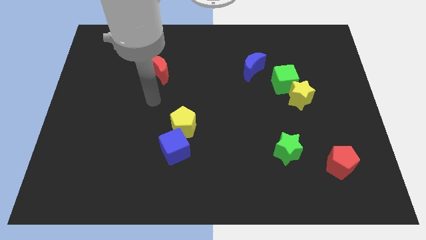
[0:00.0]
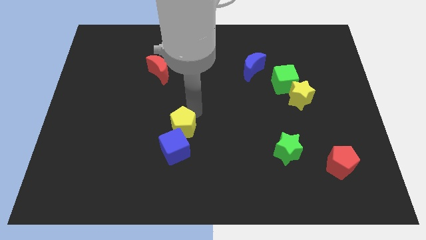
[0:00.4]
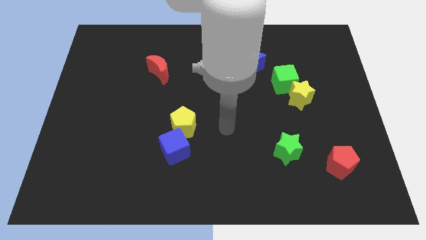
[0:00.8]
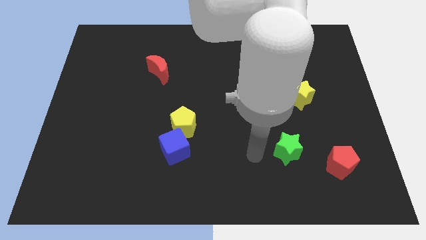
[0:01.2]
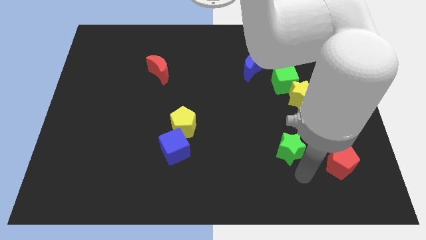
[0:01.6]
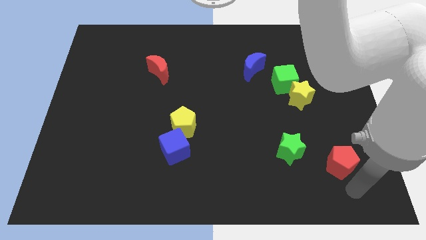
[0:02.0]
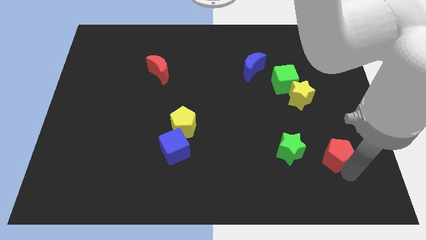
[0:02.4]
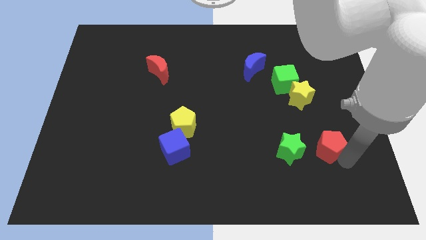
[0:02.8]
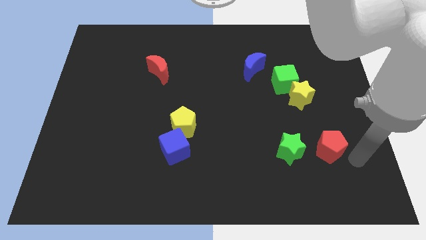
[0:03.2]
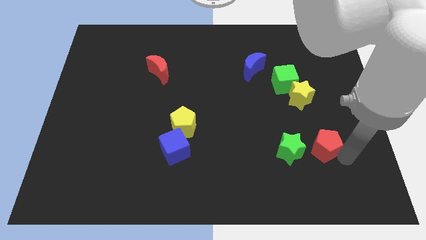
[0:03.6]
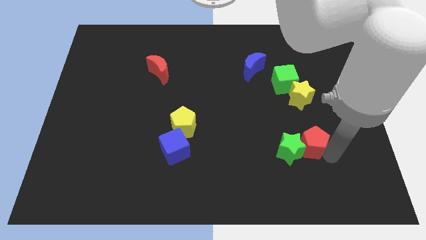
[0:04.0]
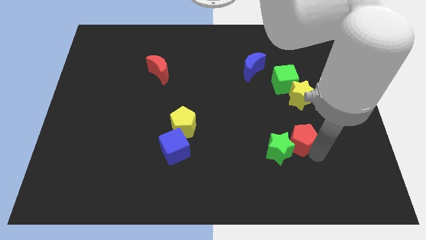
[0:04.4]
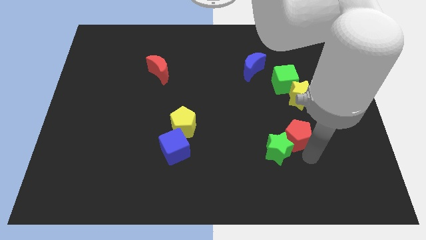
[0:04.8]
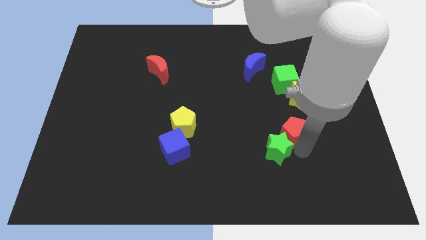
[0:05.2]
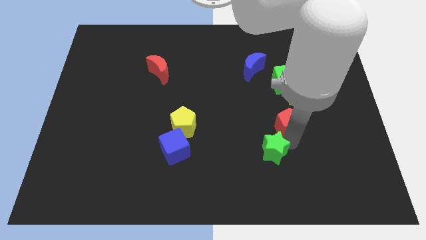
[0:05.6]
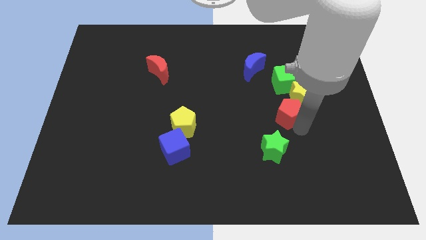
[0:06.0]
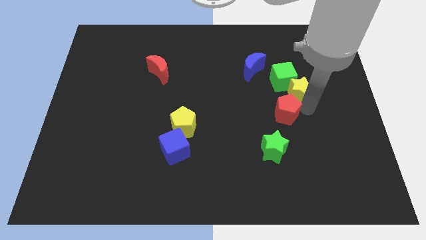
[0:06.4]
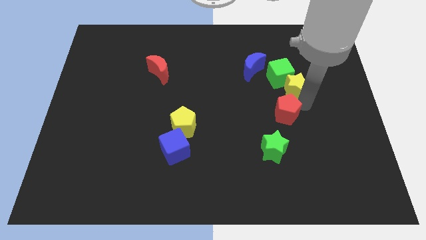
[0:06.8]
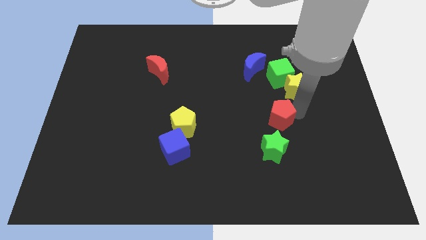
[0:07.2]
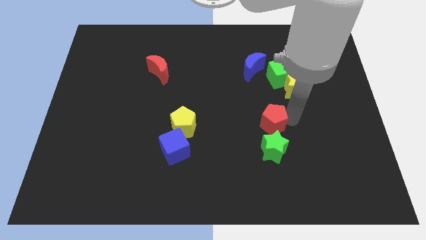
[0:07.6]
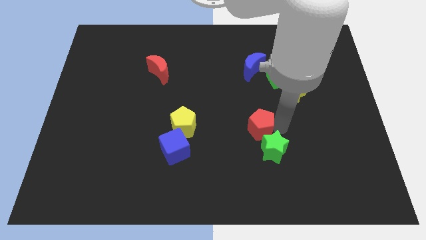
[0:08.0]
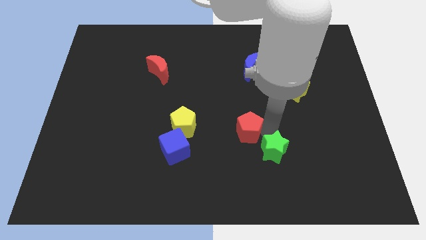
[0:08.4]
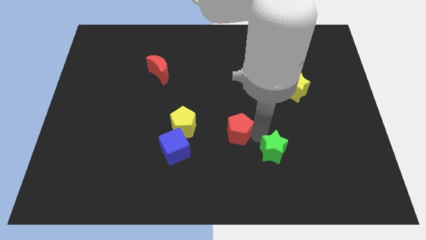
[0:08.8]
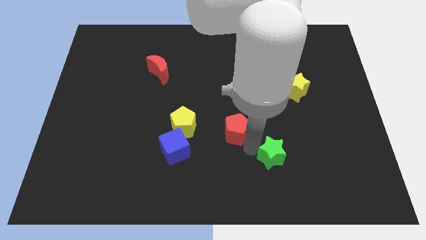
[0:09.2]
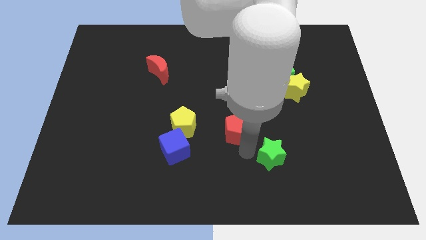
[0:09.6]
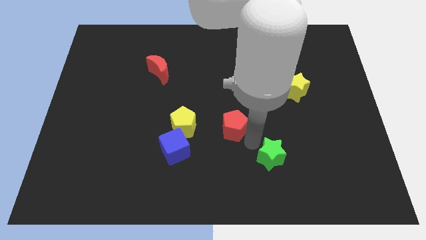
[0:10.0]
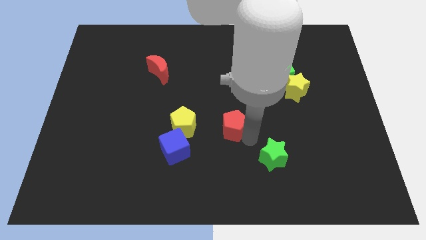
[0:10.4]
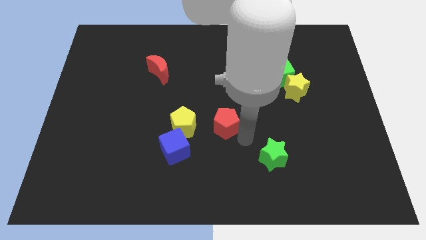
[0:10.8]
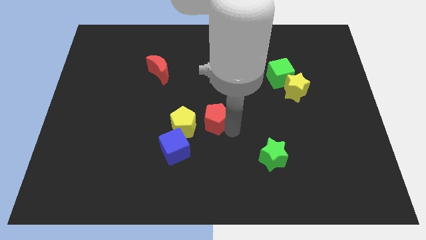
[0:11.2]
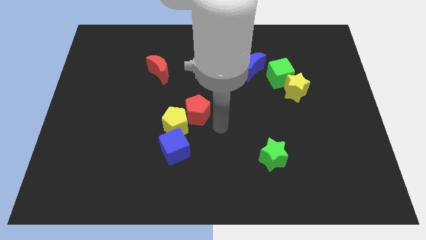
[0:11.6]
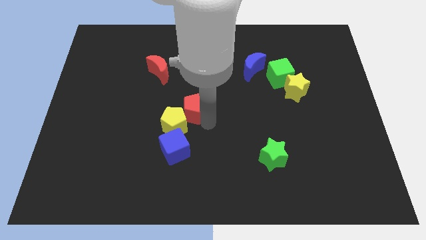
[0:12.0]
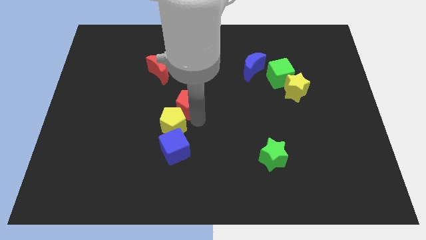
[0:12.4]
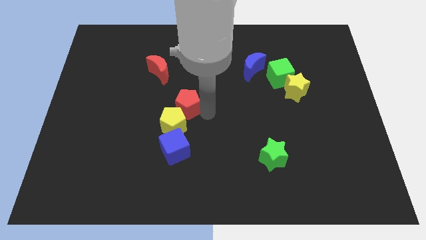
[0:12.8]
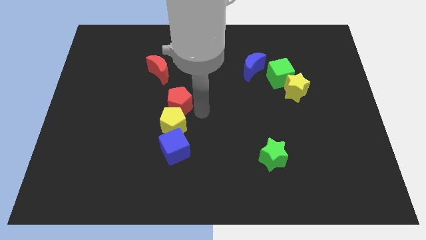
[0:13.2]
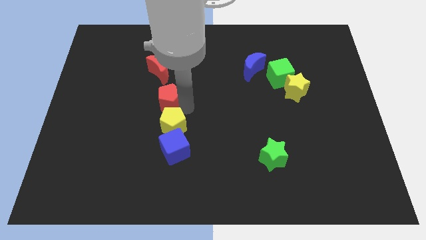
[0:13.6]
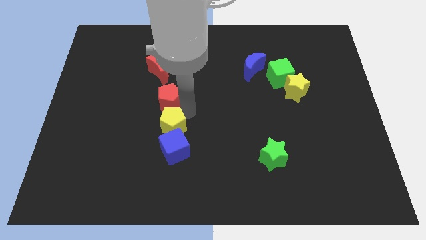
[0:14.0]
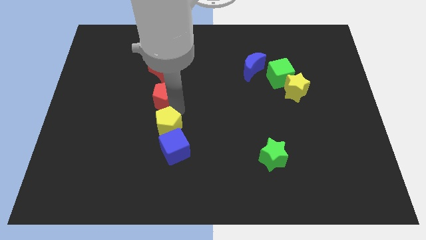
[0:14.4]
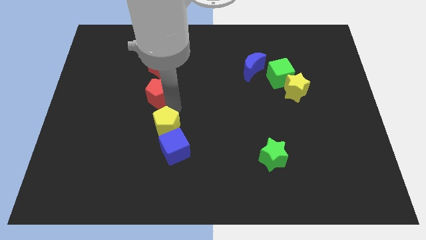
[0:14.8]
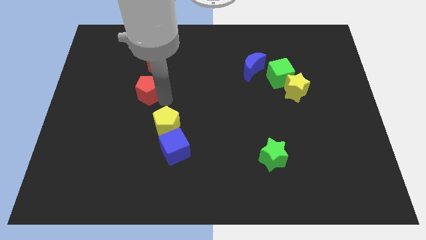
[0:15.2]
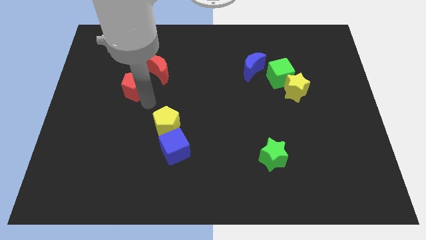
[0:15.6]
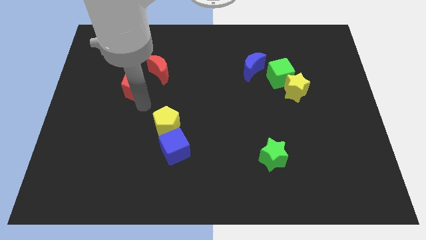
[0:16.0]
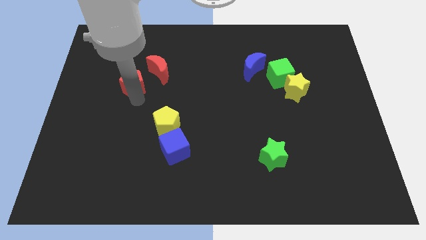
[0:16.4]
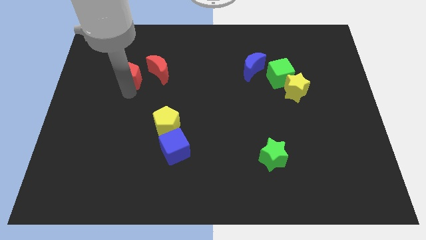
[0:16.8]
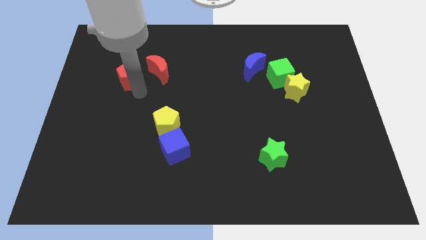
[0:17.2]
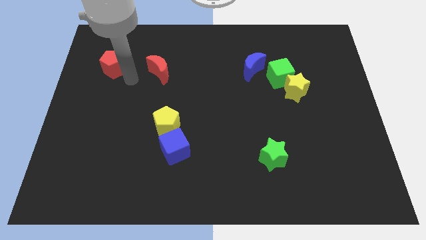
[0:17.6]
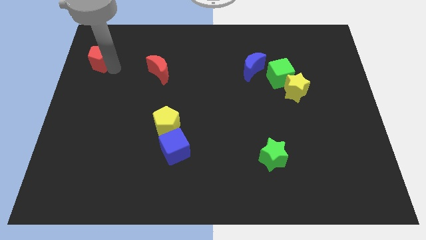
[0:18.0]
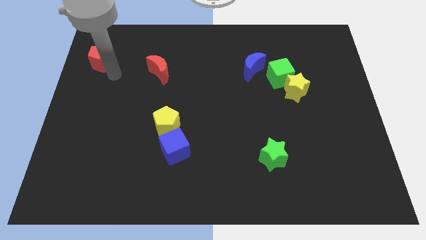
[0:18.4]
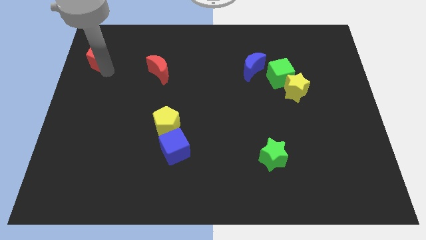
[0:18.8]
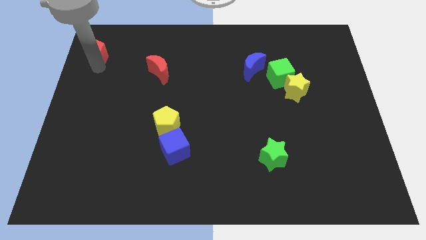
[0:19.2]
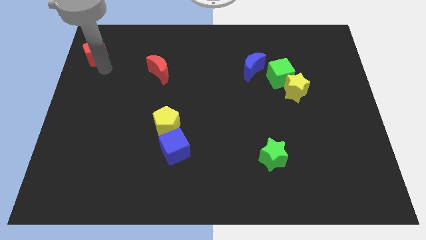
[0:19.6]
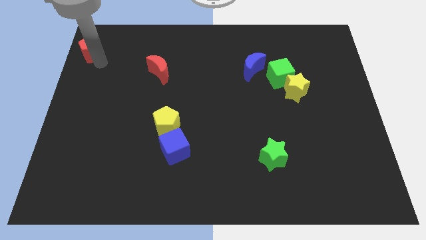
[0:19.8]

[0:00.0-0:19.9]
move the red pentagon to the top left corner

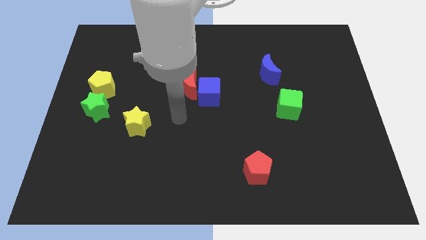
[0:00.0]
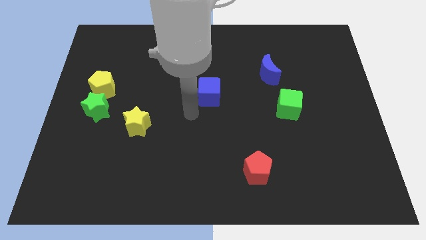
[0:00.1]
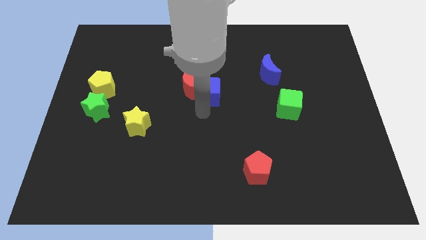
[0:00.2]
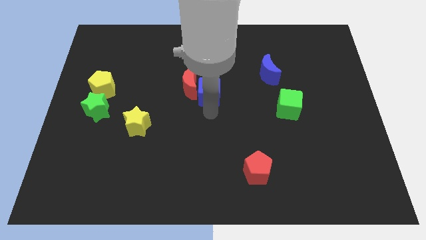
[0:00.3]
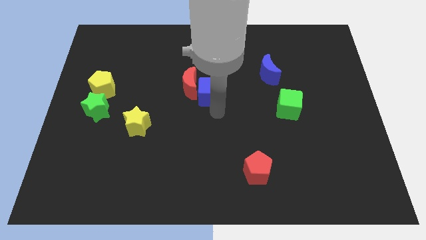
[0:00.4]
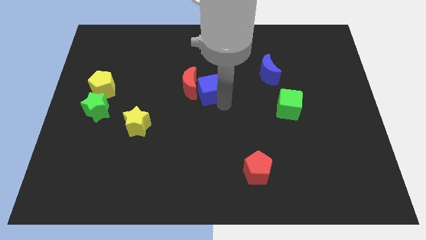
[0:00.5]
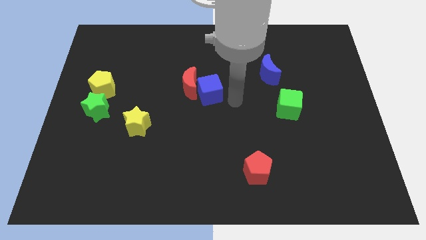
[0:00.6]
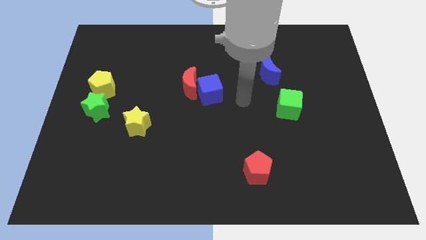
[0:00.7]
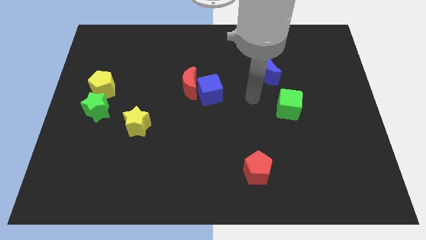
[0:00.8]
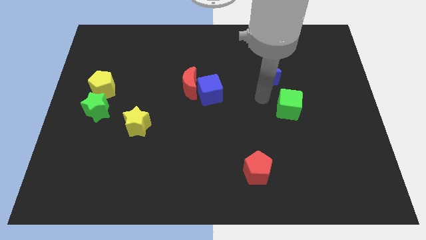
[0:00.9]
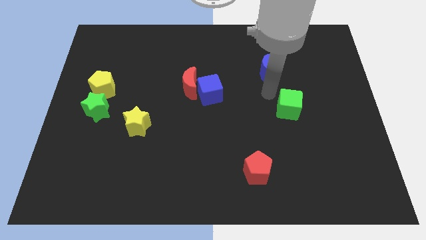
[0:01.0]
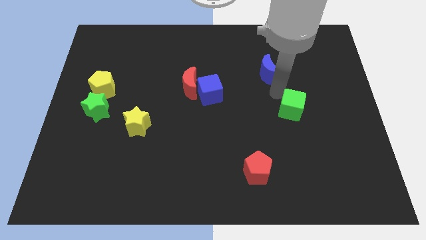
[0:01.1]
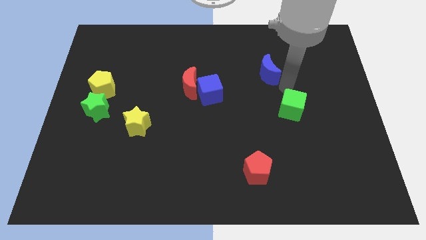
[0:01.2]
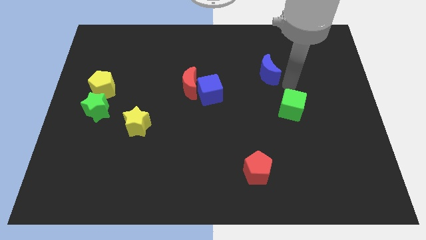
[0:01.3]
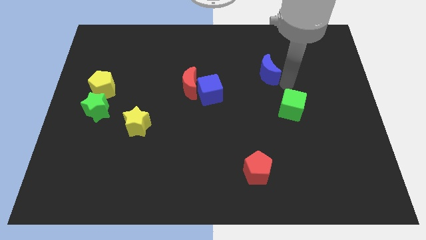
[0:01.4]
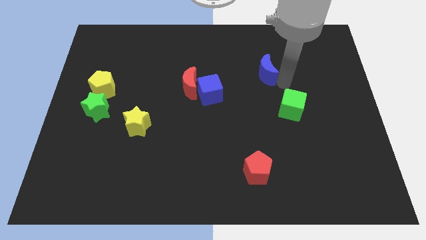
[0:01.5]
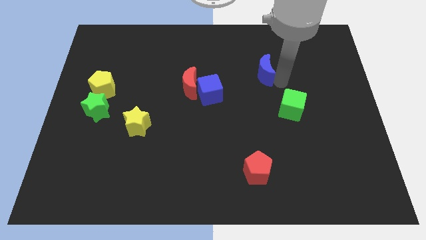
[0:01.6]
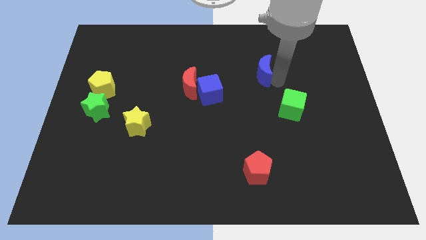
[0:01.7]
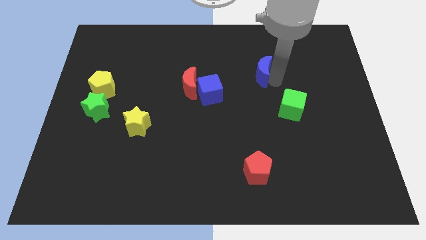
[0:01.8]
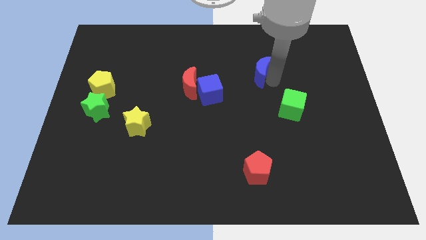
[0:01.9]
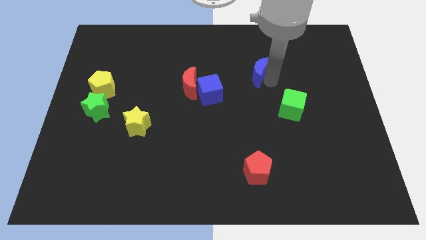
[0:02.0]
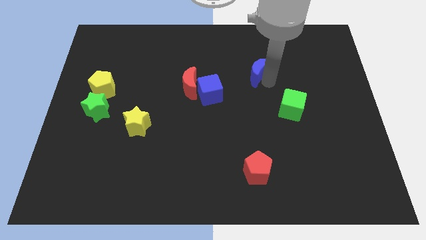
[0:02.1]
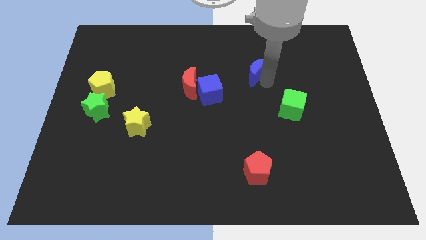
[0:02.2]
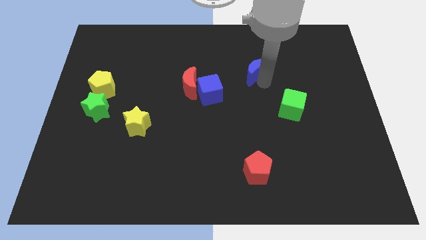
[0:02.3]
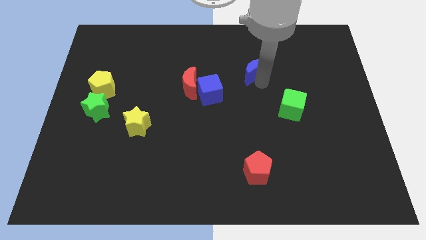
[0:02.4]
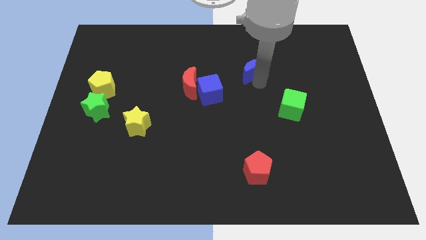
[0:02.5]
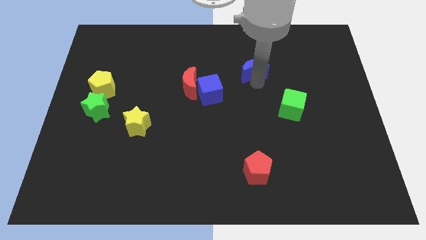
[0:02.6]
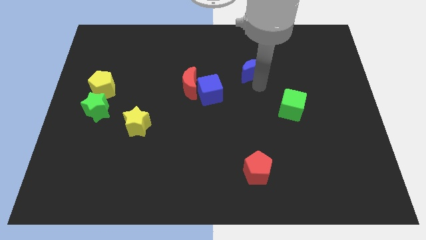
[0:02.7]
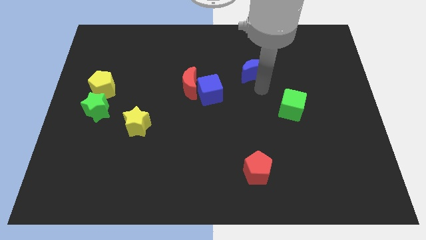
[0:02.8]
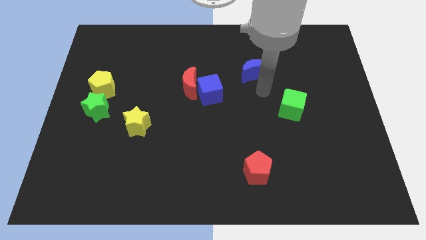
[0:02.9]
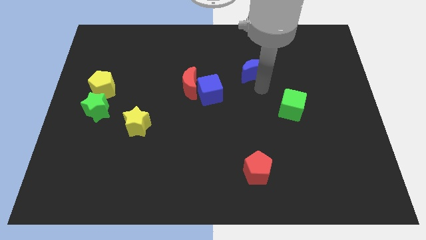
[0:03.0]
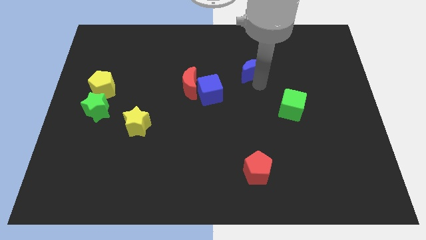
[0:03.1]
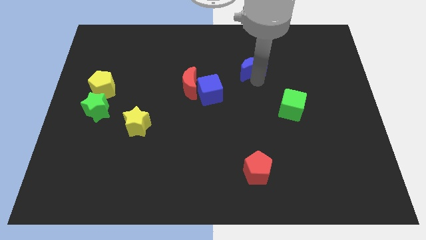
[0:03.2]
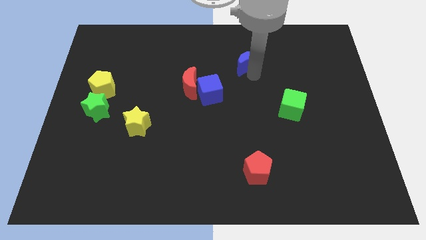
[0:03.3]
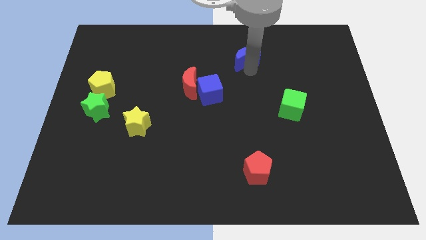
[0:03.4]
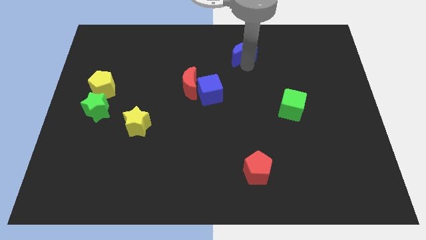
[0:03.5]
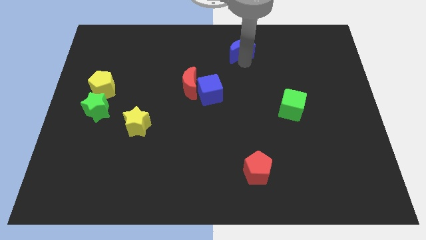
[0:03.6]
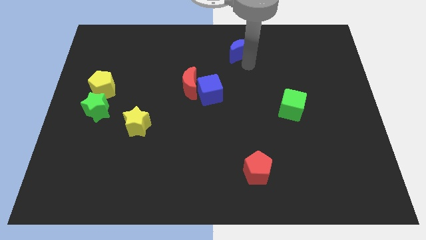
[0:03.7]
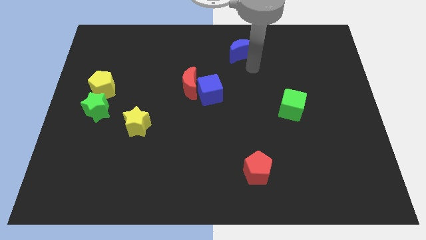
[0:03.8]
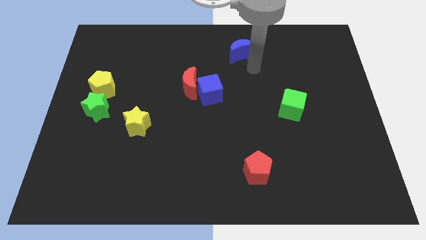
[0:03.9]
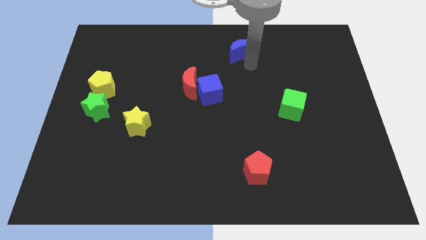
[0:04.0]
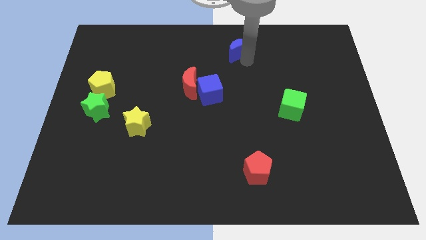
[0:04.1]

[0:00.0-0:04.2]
push the blue moon to the top
